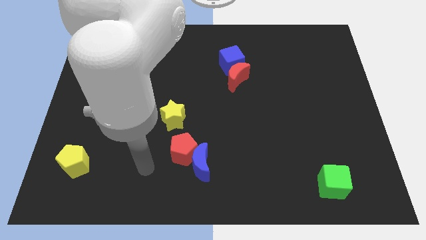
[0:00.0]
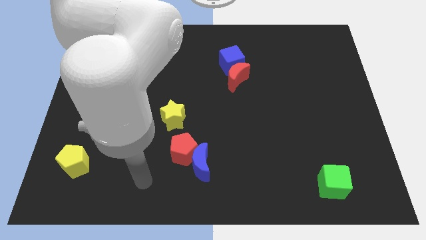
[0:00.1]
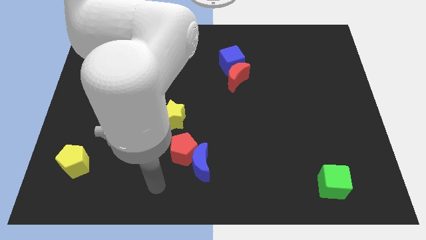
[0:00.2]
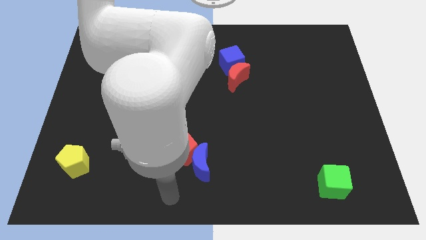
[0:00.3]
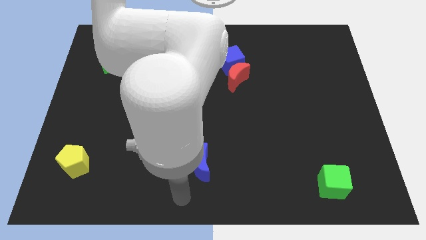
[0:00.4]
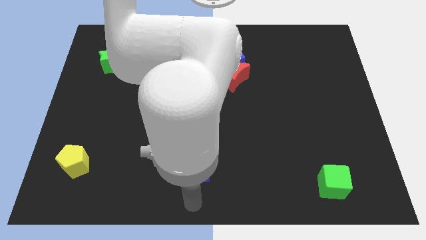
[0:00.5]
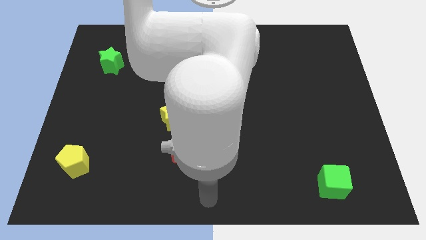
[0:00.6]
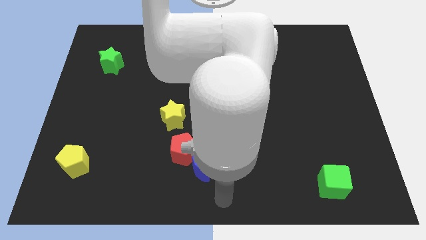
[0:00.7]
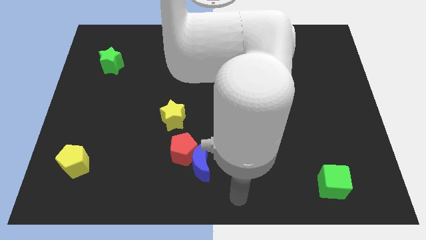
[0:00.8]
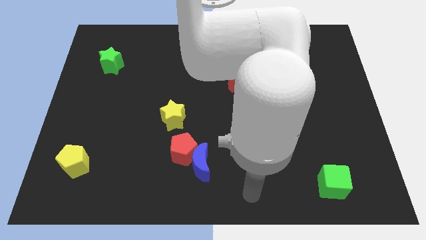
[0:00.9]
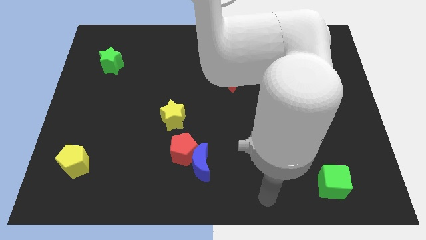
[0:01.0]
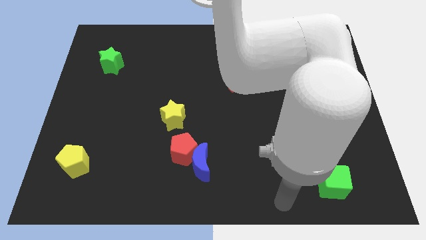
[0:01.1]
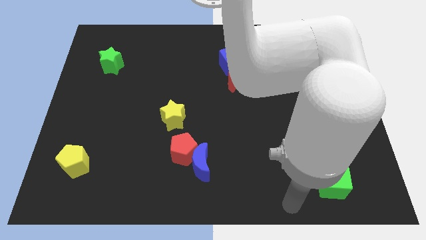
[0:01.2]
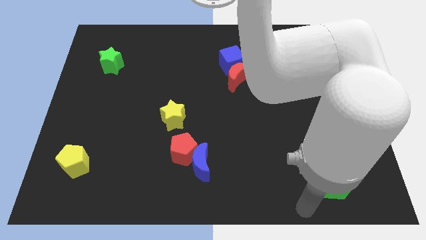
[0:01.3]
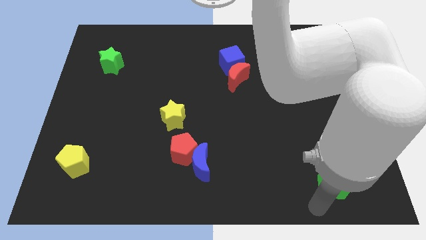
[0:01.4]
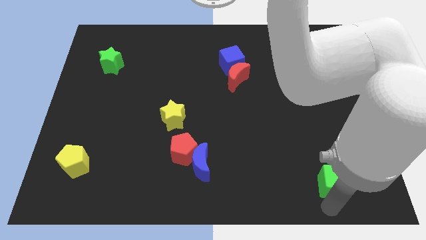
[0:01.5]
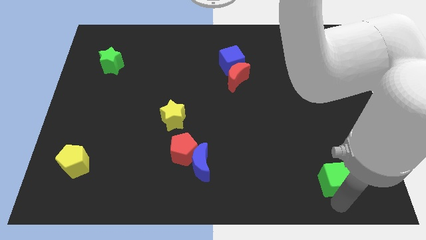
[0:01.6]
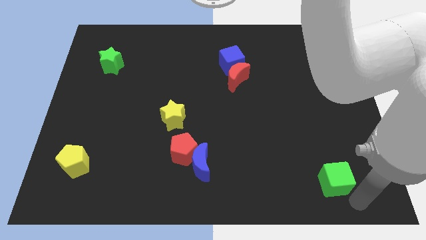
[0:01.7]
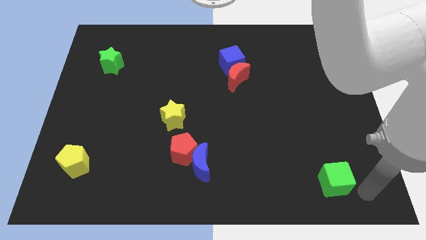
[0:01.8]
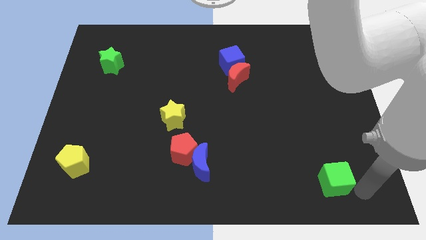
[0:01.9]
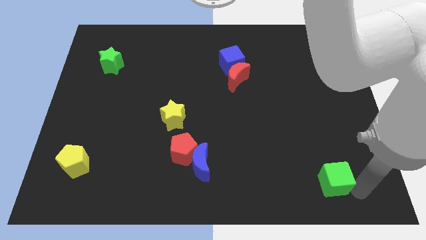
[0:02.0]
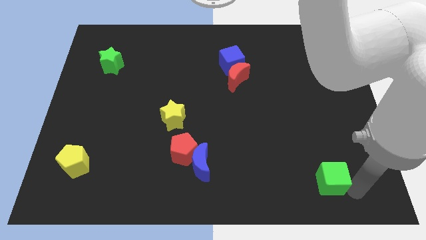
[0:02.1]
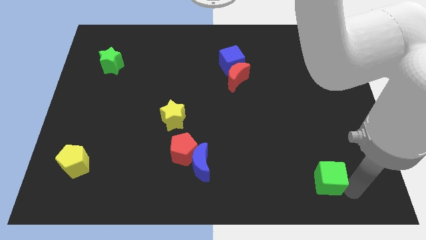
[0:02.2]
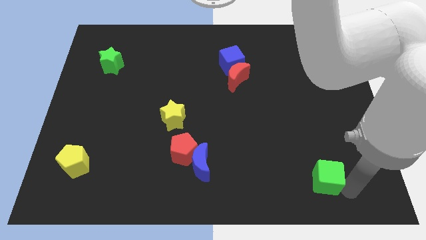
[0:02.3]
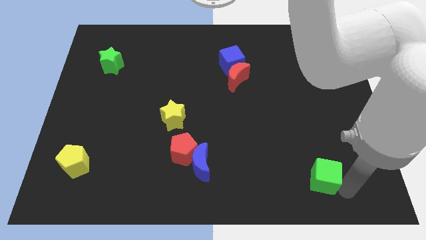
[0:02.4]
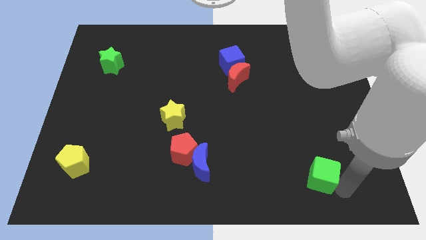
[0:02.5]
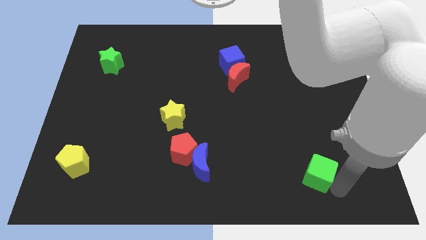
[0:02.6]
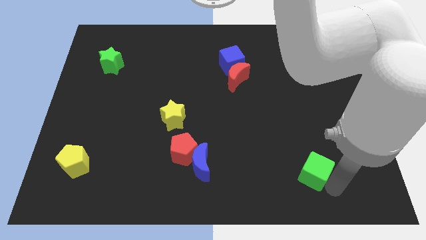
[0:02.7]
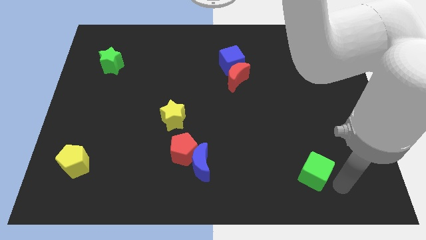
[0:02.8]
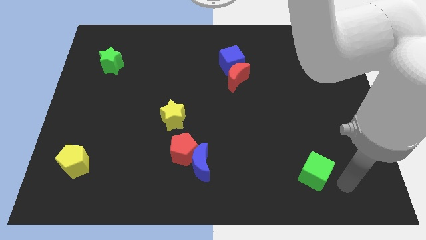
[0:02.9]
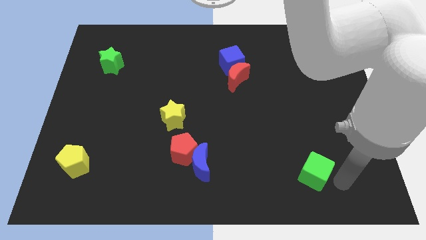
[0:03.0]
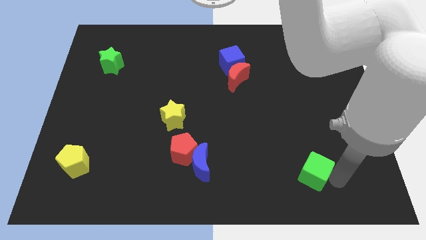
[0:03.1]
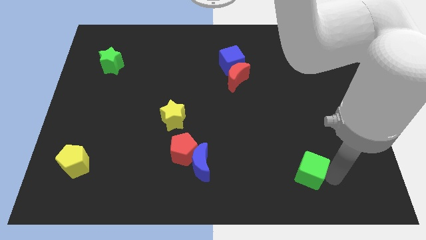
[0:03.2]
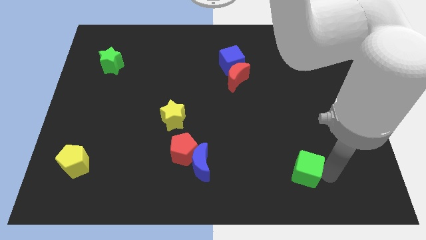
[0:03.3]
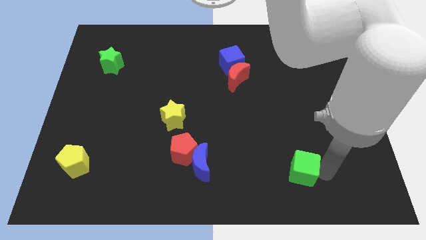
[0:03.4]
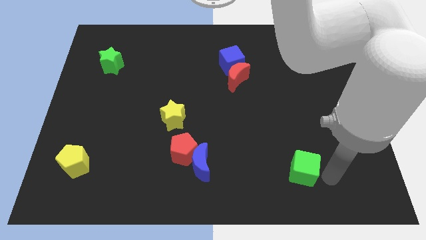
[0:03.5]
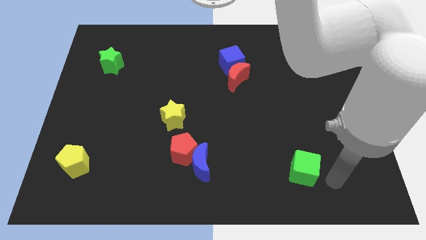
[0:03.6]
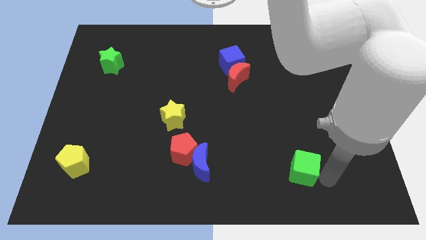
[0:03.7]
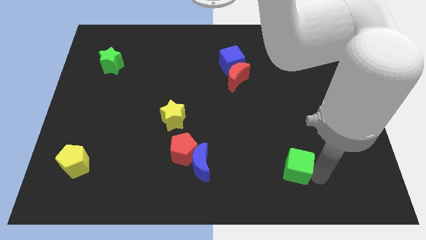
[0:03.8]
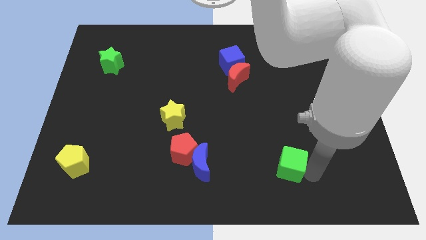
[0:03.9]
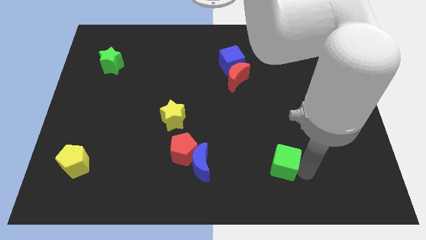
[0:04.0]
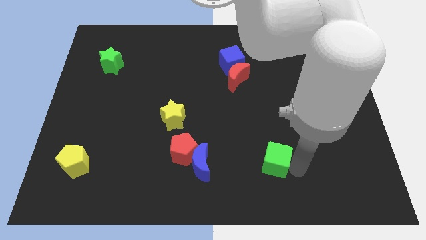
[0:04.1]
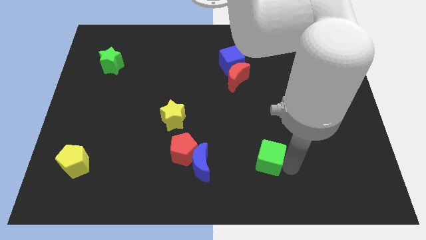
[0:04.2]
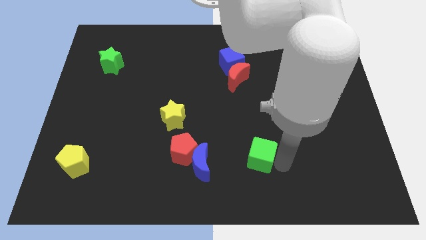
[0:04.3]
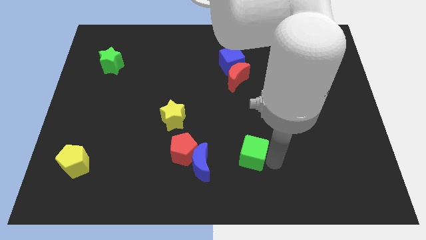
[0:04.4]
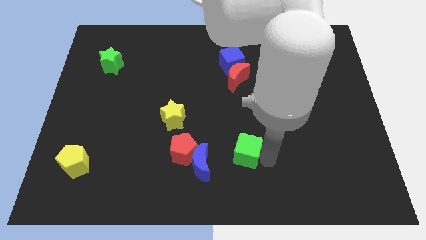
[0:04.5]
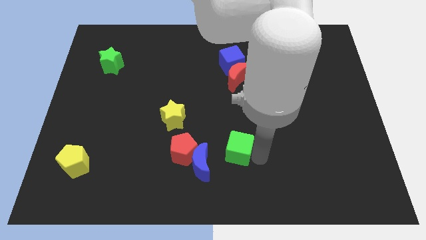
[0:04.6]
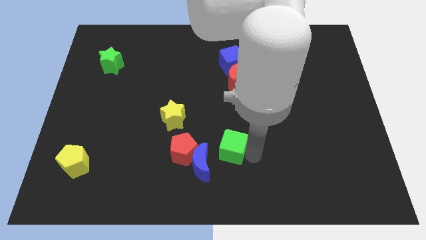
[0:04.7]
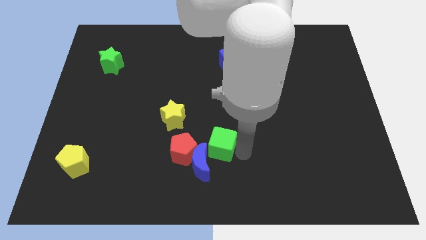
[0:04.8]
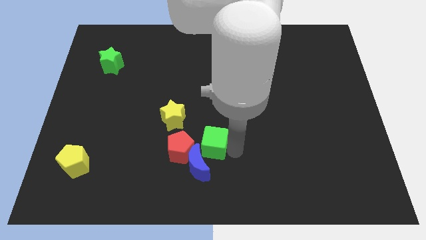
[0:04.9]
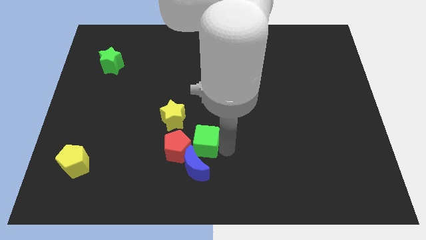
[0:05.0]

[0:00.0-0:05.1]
put the green cube close to the red pentagon

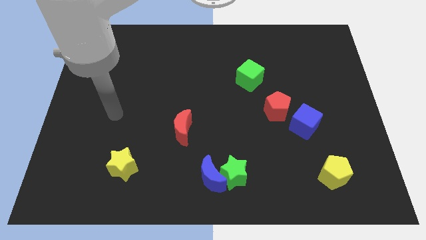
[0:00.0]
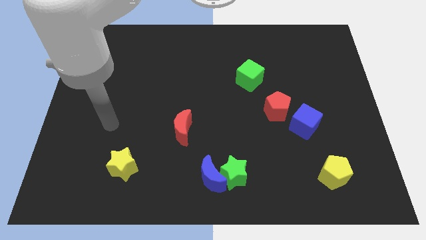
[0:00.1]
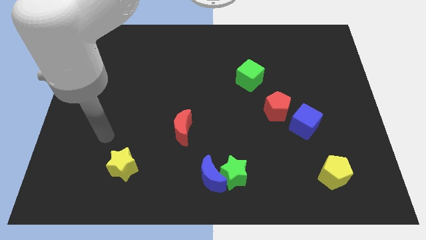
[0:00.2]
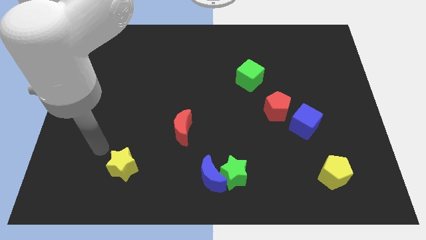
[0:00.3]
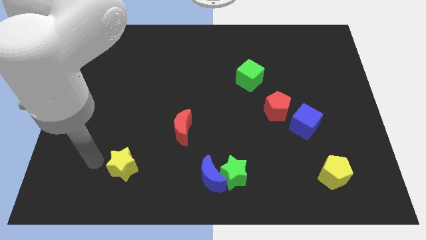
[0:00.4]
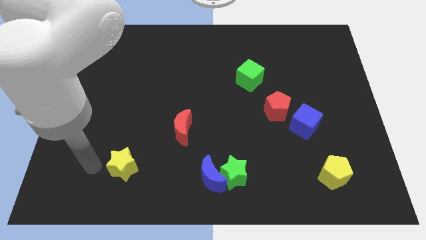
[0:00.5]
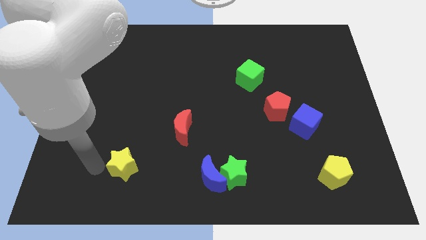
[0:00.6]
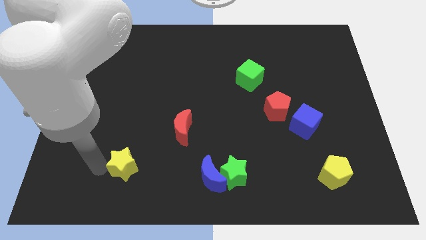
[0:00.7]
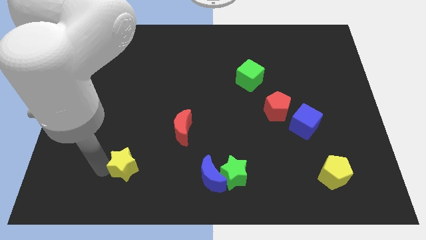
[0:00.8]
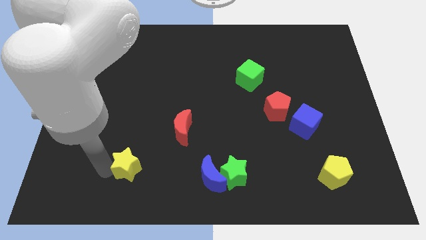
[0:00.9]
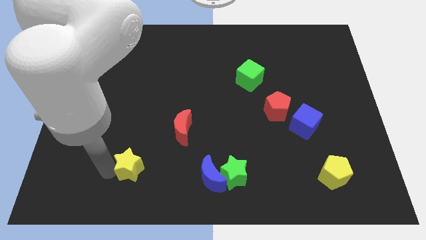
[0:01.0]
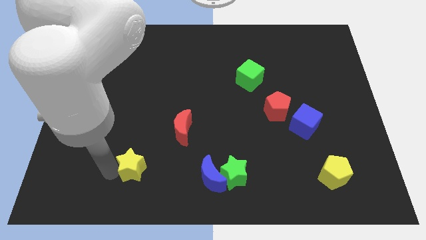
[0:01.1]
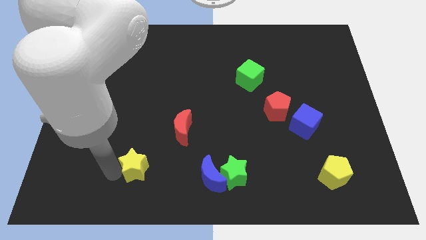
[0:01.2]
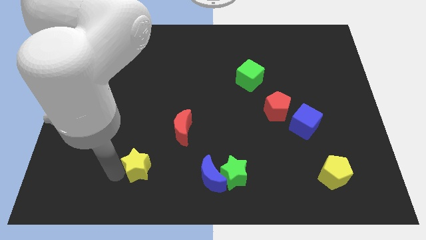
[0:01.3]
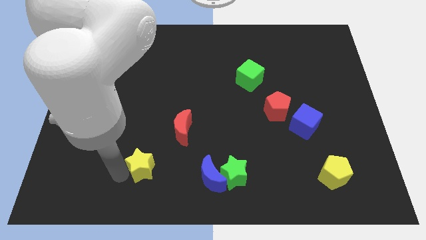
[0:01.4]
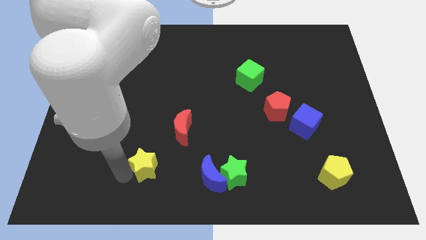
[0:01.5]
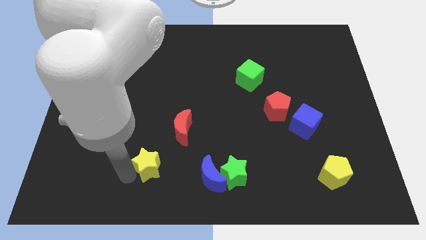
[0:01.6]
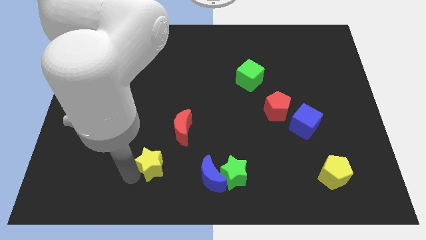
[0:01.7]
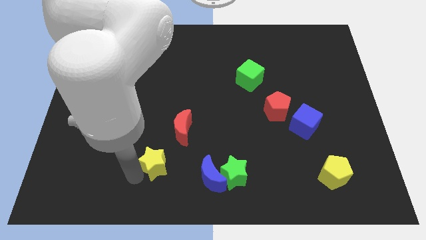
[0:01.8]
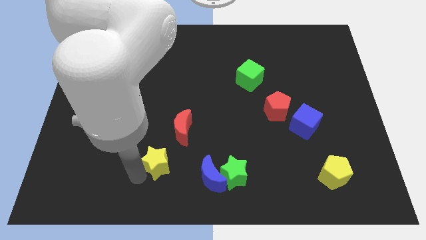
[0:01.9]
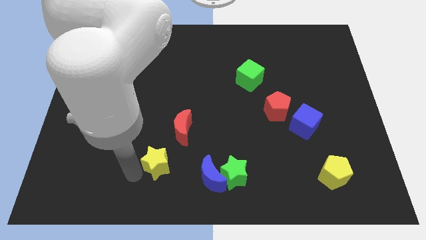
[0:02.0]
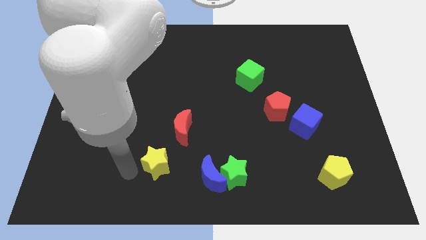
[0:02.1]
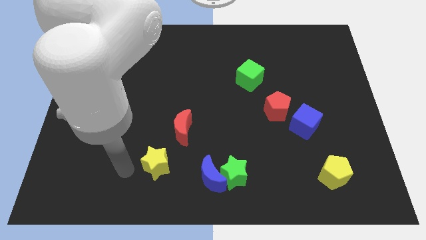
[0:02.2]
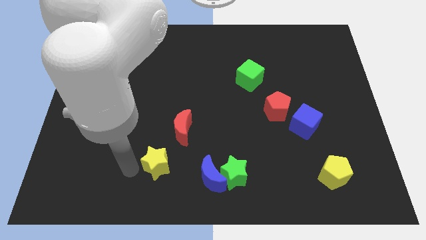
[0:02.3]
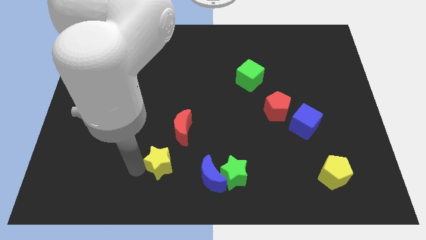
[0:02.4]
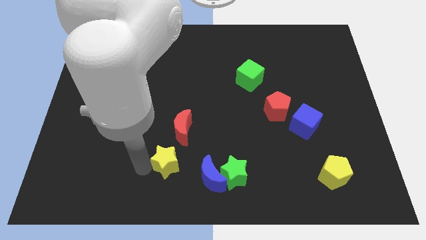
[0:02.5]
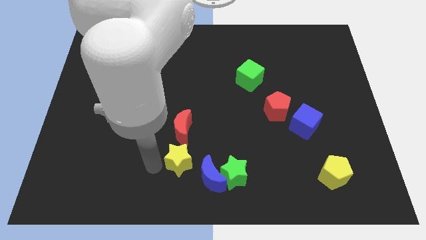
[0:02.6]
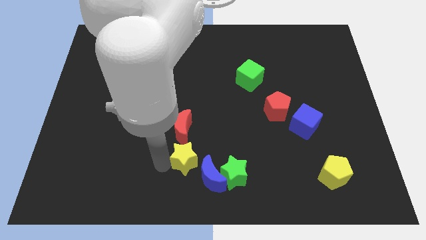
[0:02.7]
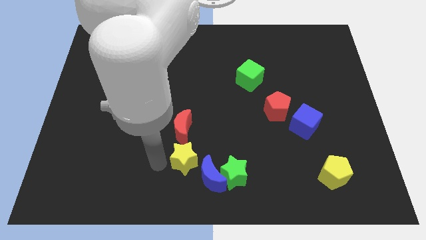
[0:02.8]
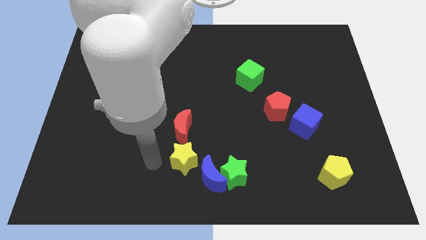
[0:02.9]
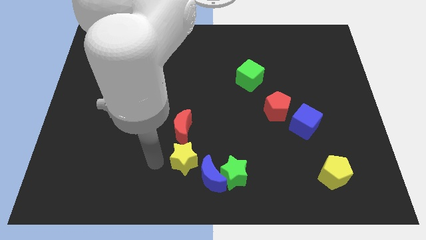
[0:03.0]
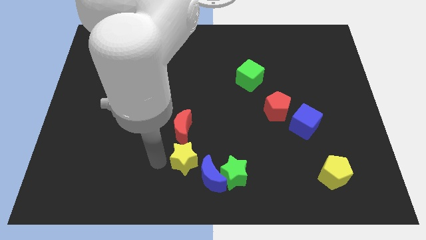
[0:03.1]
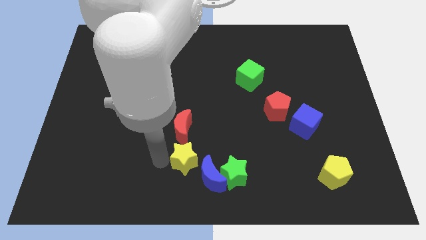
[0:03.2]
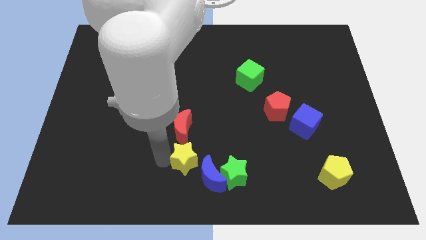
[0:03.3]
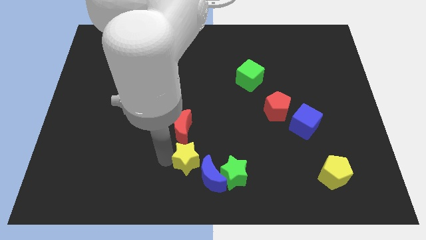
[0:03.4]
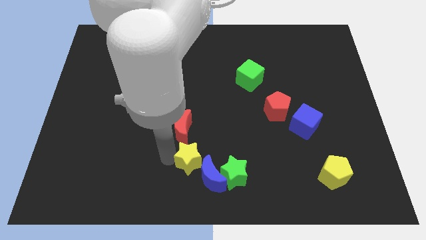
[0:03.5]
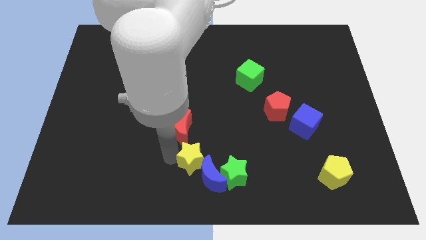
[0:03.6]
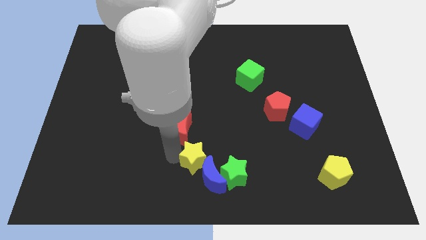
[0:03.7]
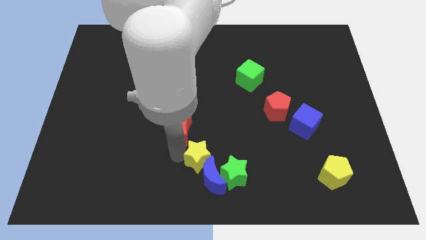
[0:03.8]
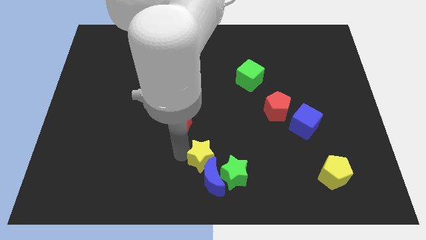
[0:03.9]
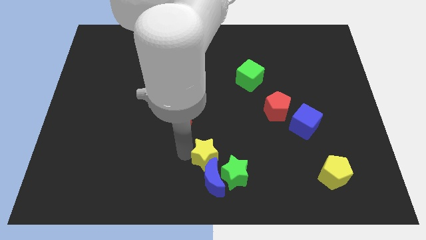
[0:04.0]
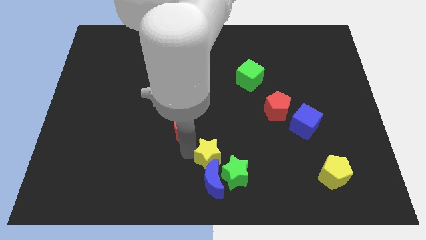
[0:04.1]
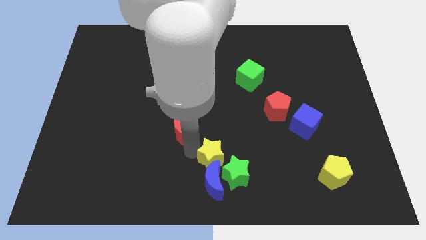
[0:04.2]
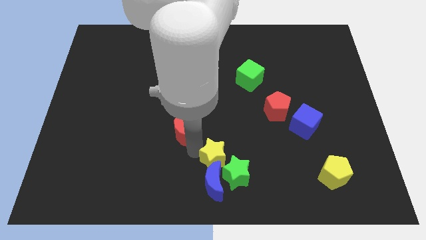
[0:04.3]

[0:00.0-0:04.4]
push the yellow star close to the green star
